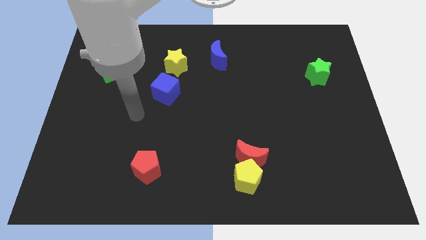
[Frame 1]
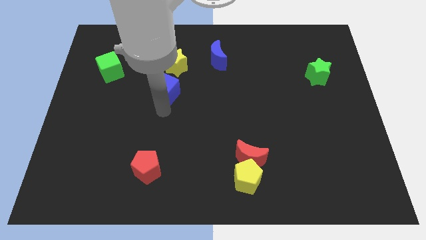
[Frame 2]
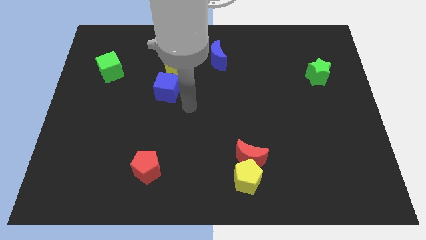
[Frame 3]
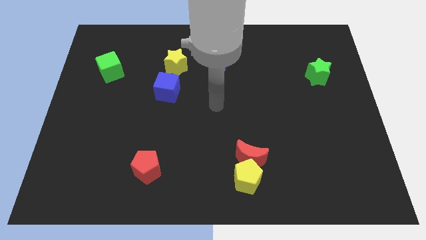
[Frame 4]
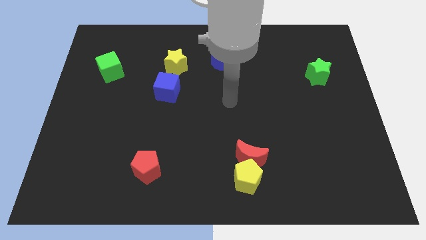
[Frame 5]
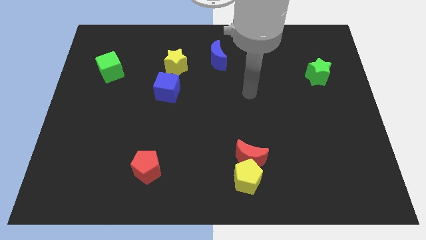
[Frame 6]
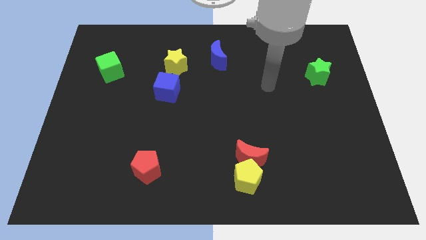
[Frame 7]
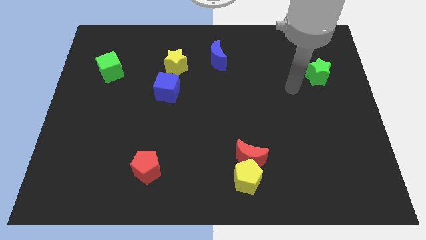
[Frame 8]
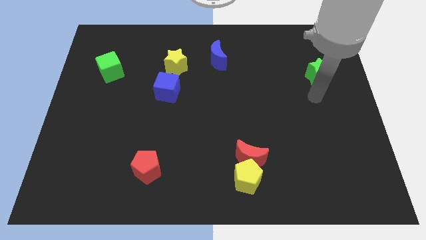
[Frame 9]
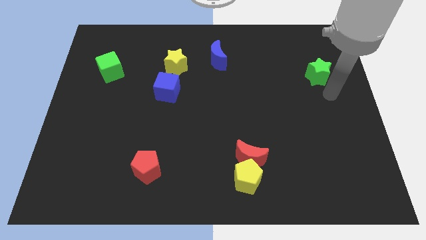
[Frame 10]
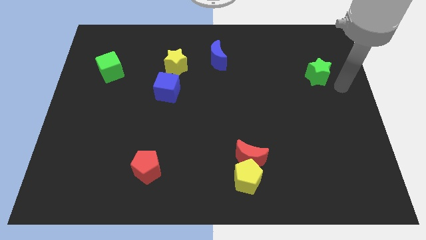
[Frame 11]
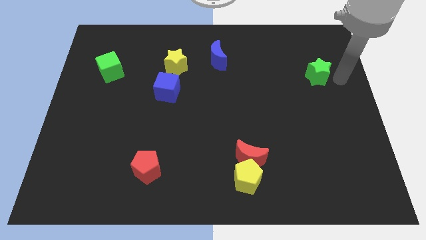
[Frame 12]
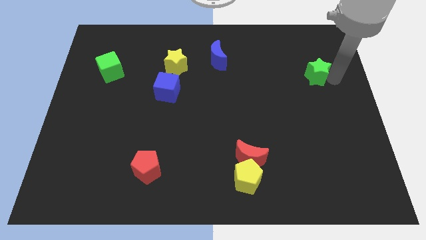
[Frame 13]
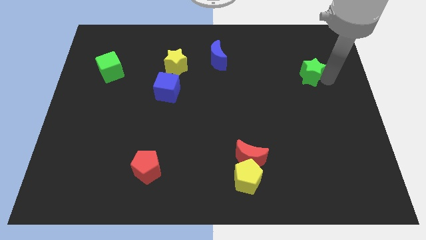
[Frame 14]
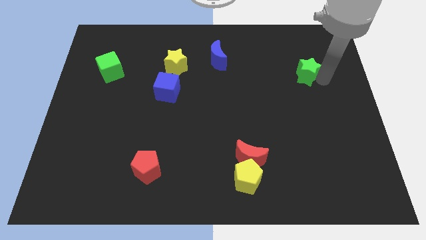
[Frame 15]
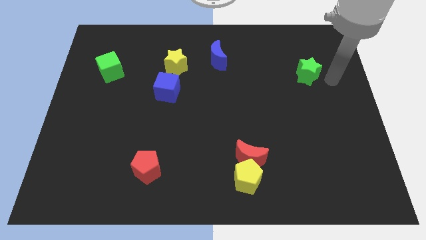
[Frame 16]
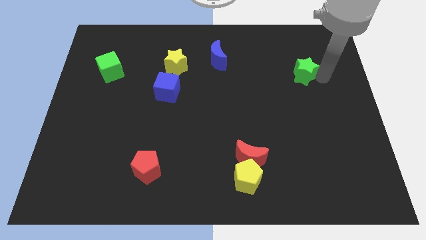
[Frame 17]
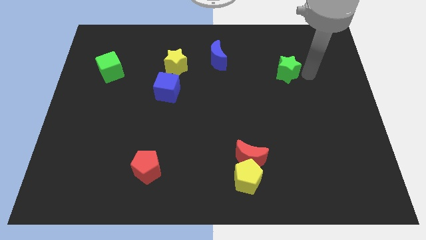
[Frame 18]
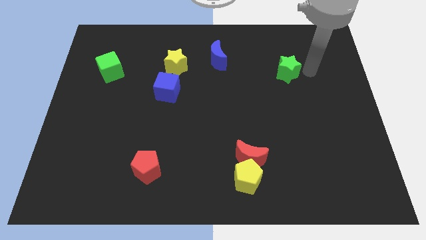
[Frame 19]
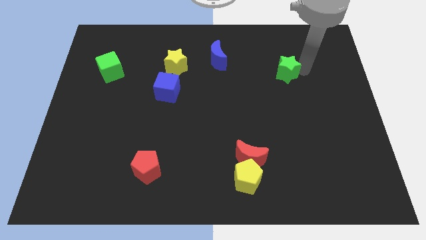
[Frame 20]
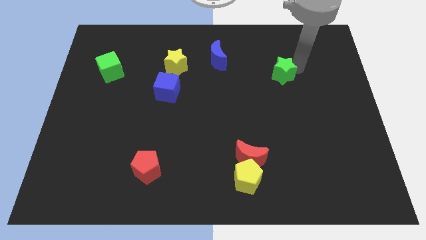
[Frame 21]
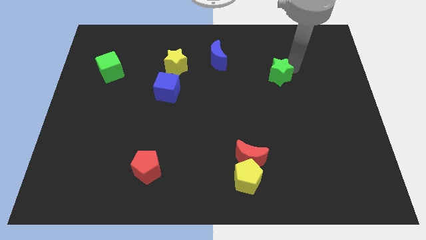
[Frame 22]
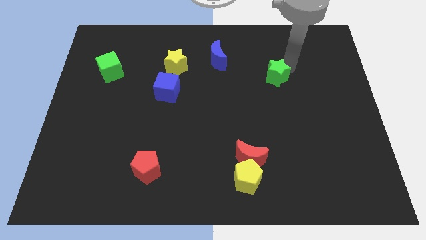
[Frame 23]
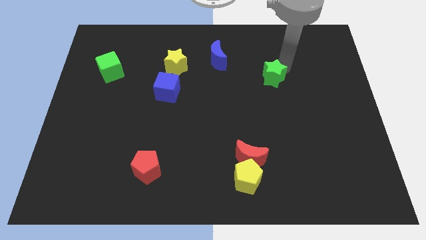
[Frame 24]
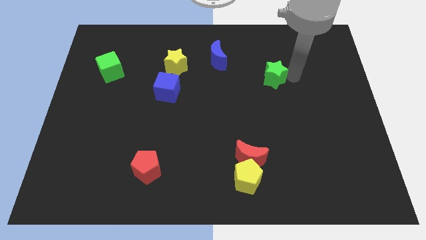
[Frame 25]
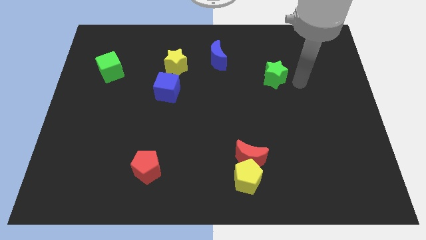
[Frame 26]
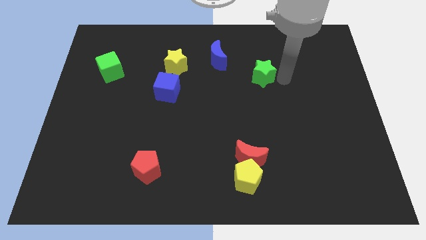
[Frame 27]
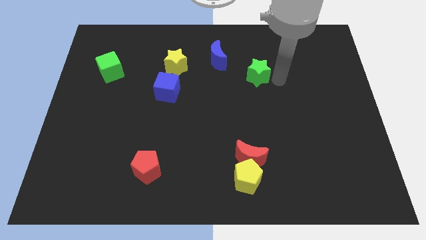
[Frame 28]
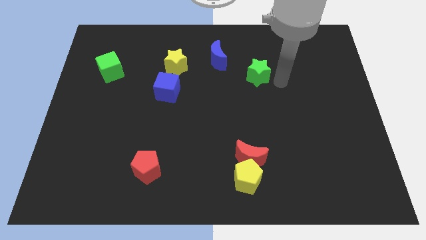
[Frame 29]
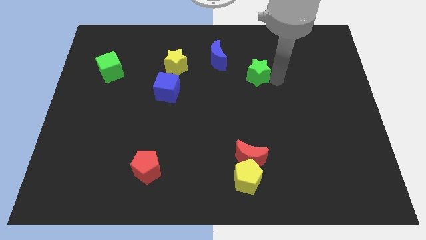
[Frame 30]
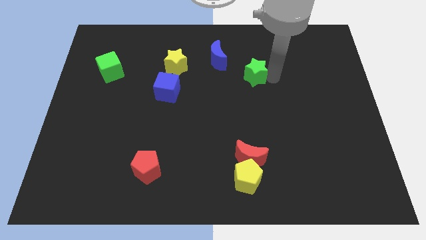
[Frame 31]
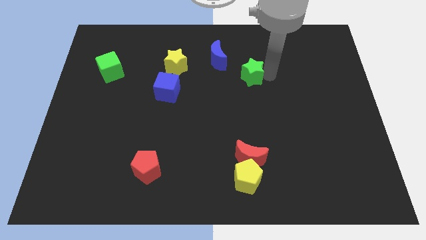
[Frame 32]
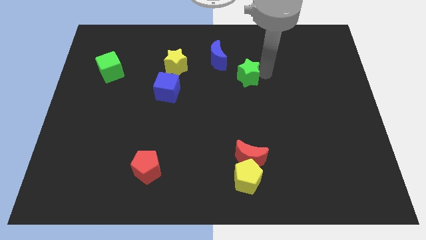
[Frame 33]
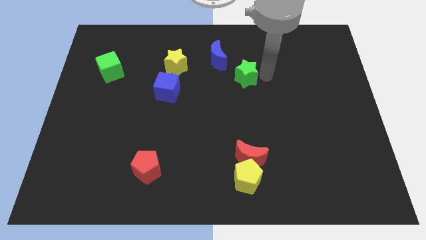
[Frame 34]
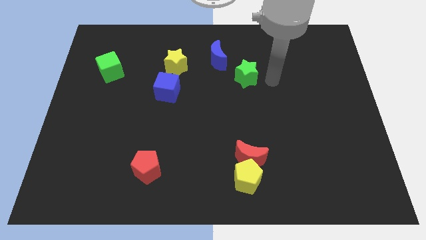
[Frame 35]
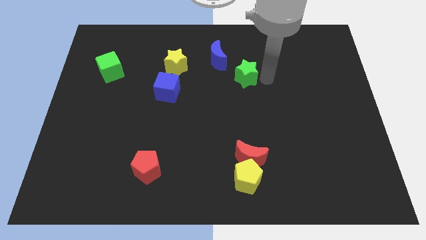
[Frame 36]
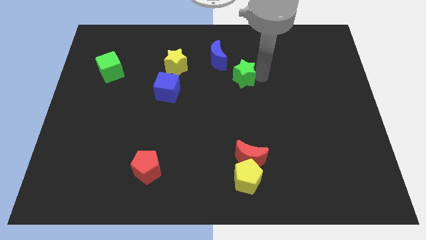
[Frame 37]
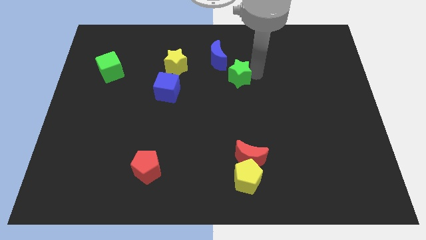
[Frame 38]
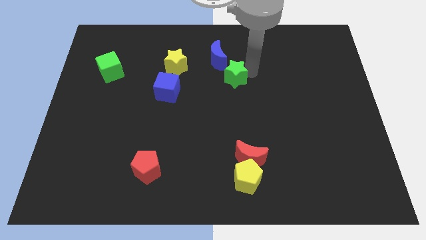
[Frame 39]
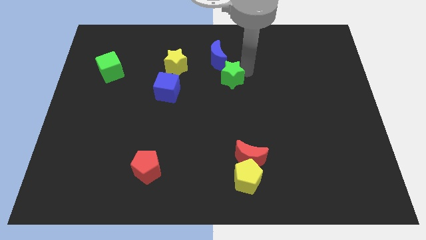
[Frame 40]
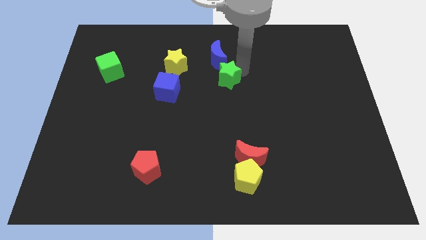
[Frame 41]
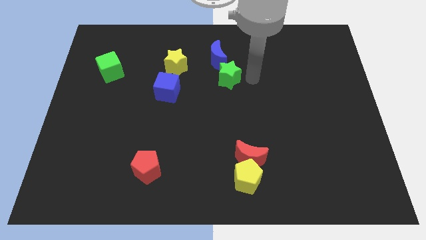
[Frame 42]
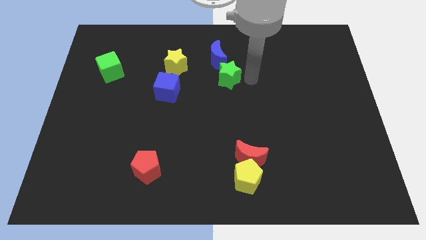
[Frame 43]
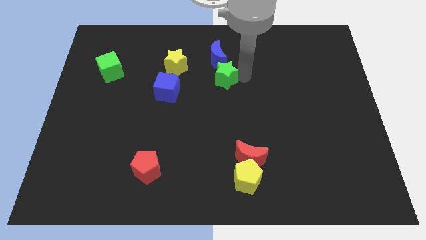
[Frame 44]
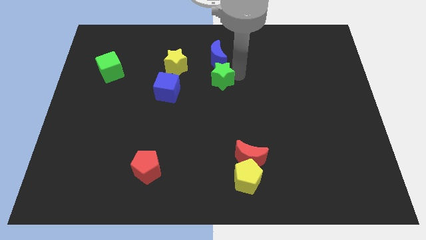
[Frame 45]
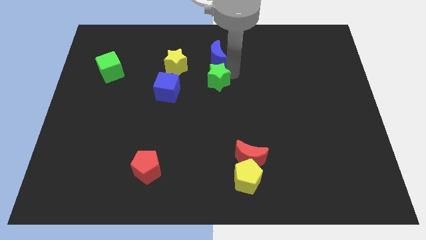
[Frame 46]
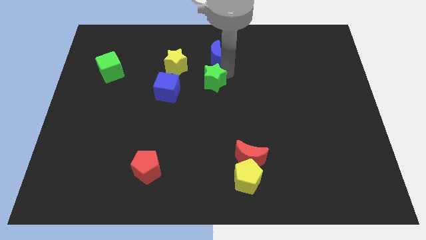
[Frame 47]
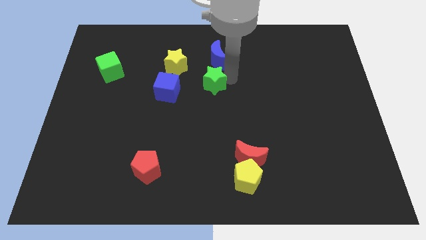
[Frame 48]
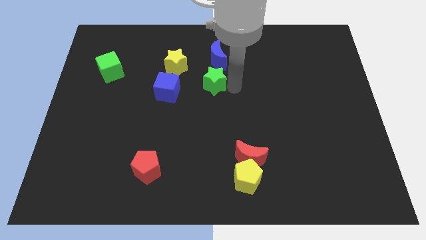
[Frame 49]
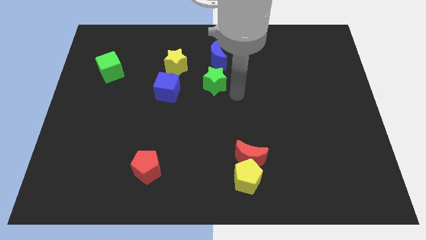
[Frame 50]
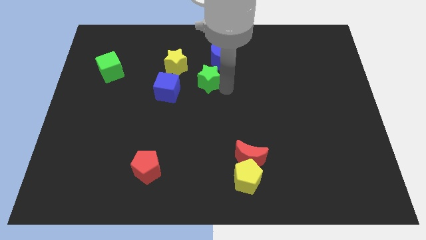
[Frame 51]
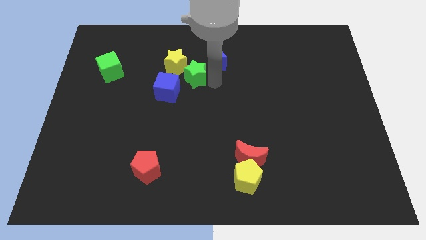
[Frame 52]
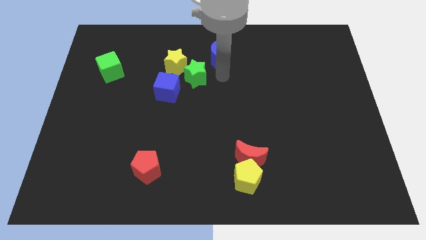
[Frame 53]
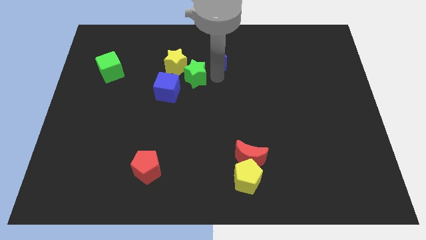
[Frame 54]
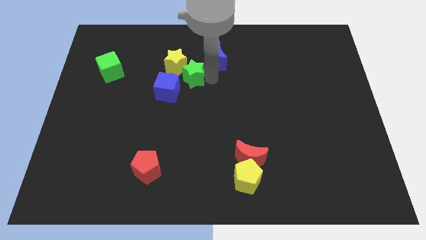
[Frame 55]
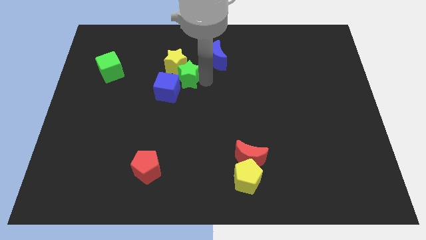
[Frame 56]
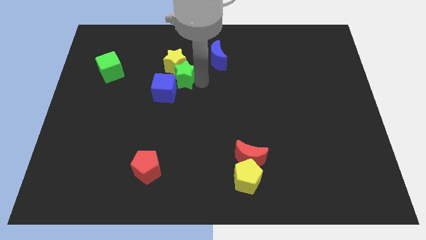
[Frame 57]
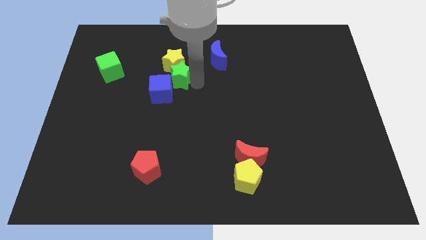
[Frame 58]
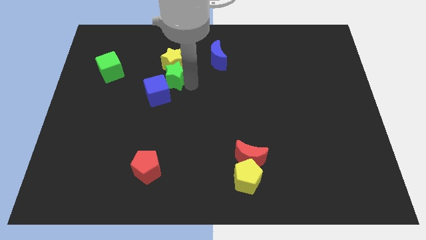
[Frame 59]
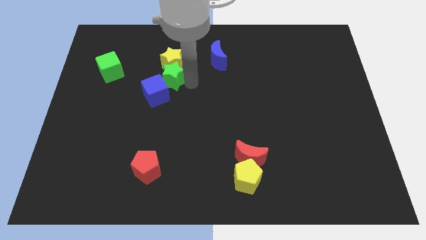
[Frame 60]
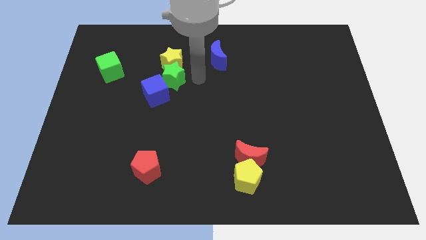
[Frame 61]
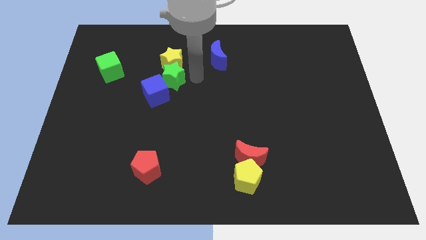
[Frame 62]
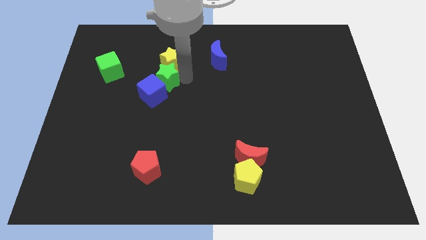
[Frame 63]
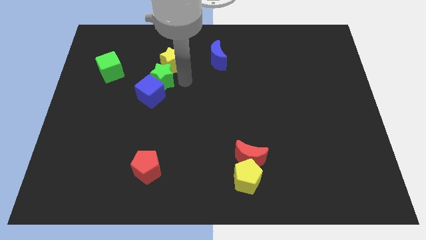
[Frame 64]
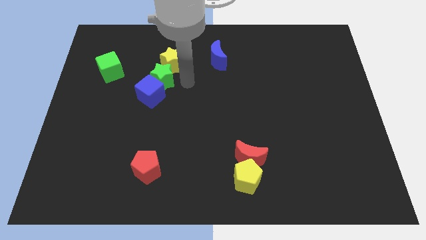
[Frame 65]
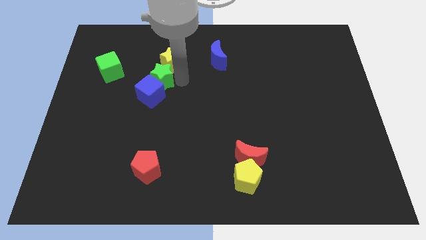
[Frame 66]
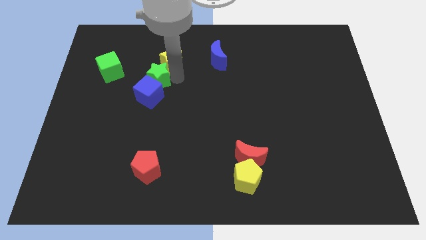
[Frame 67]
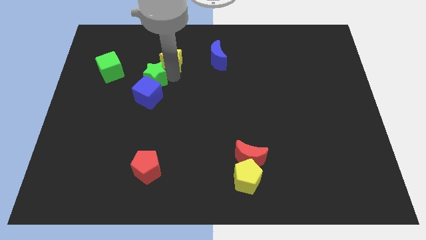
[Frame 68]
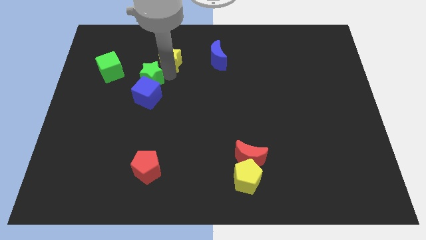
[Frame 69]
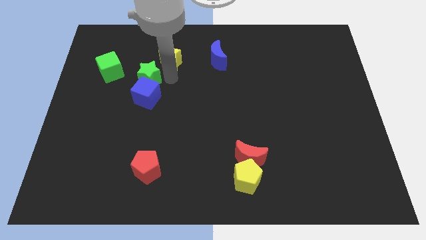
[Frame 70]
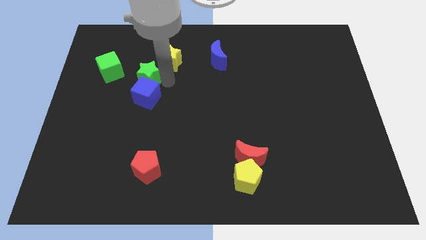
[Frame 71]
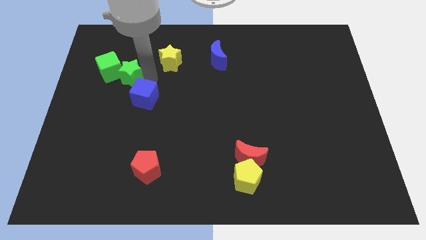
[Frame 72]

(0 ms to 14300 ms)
move the green star close to the green cube
